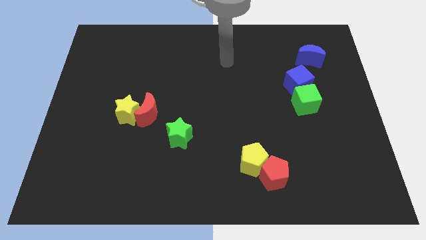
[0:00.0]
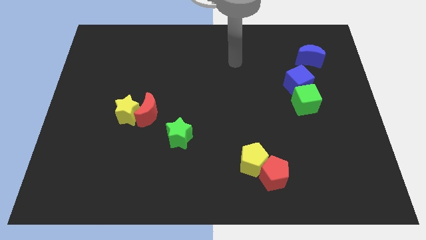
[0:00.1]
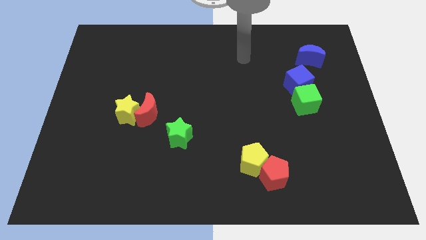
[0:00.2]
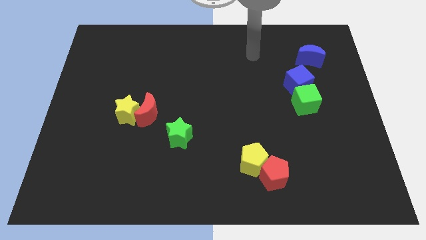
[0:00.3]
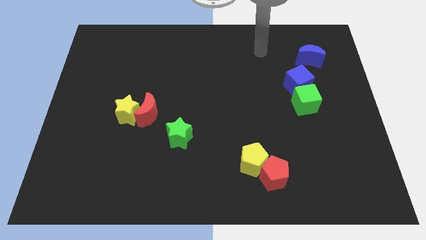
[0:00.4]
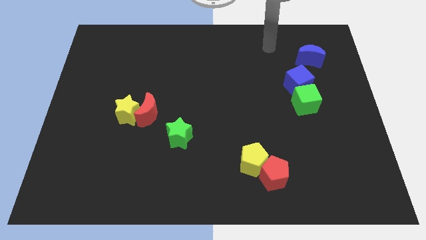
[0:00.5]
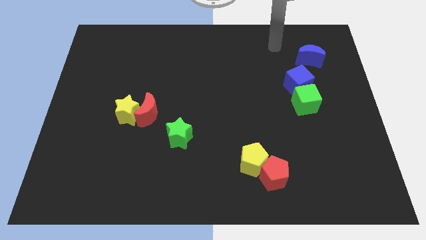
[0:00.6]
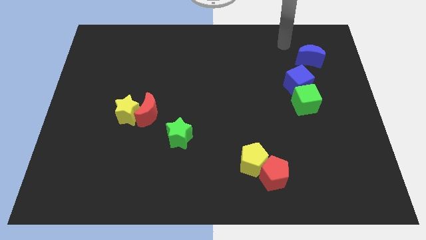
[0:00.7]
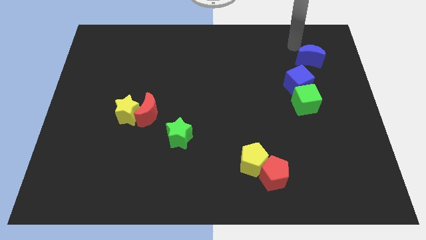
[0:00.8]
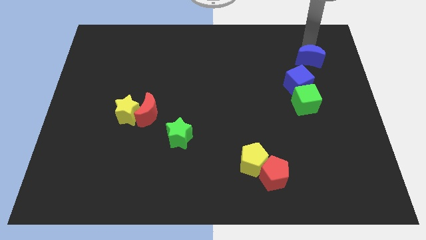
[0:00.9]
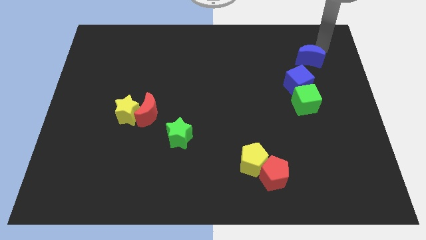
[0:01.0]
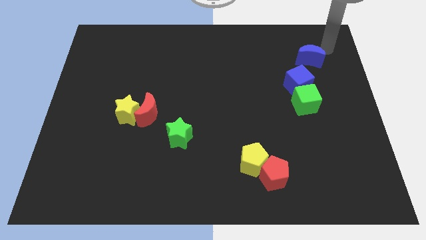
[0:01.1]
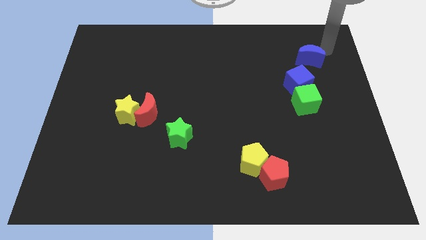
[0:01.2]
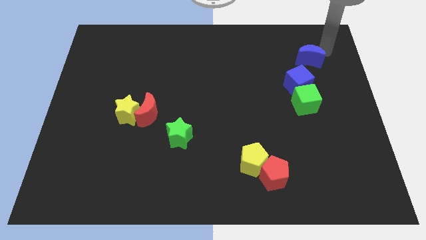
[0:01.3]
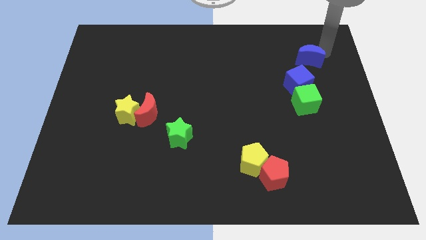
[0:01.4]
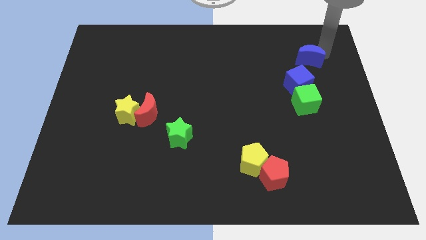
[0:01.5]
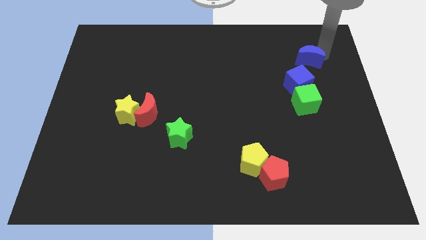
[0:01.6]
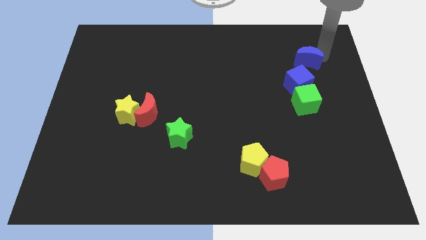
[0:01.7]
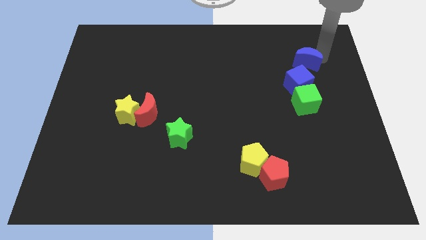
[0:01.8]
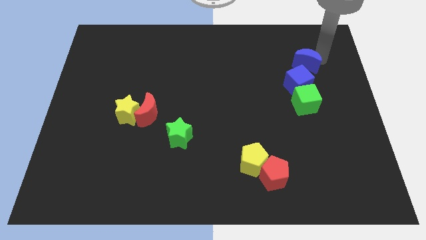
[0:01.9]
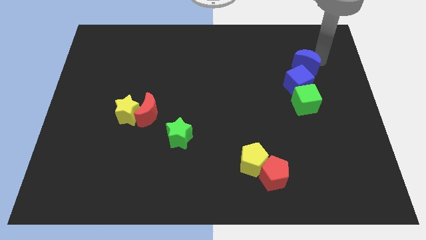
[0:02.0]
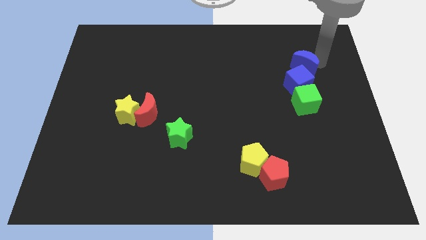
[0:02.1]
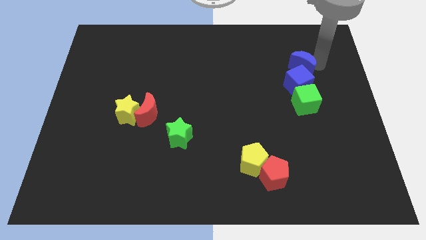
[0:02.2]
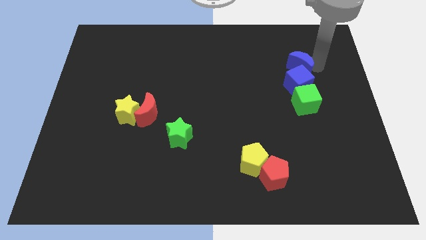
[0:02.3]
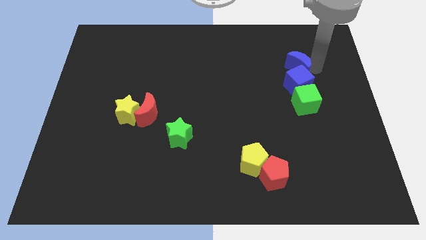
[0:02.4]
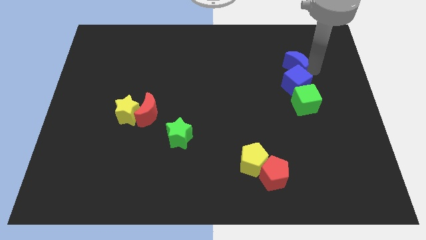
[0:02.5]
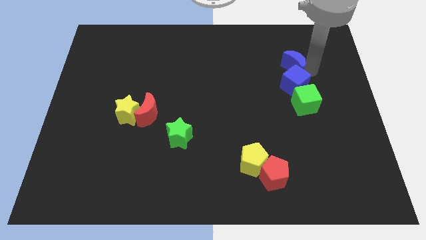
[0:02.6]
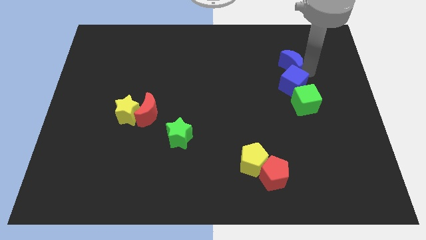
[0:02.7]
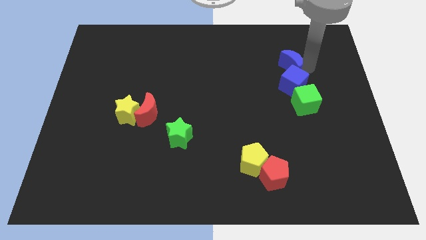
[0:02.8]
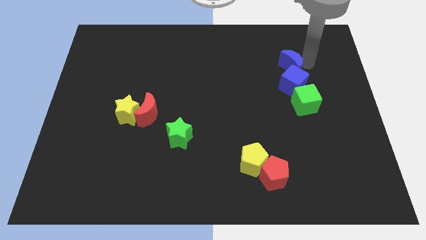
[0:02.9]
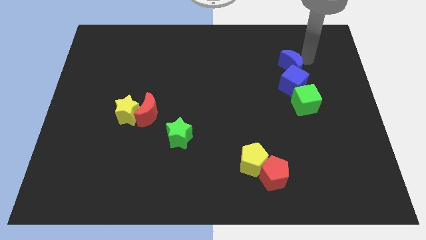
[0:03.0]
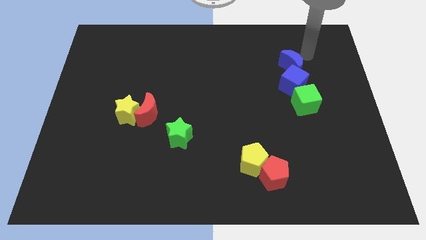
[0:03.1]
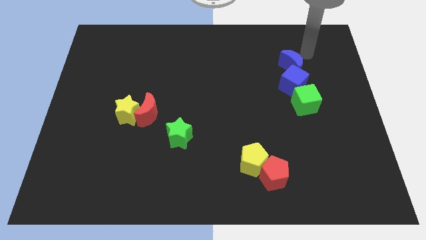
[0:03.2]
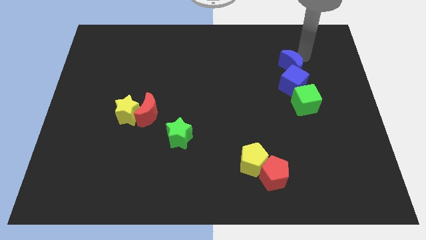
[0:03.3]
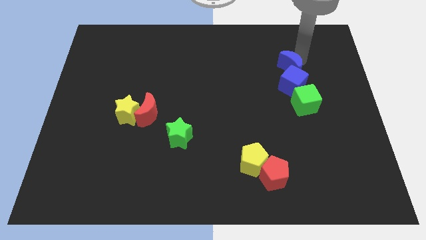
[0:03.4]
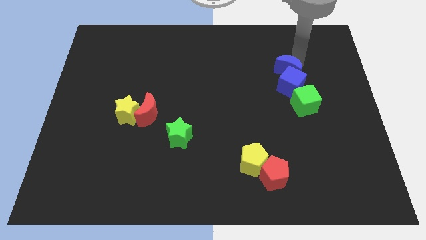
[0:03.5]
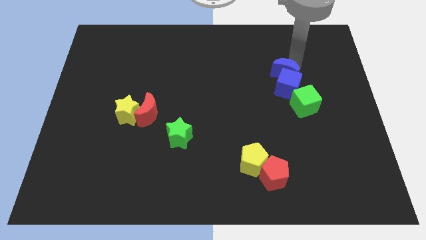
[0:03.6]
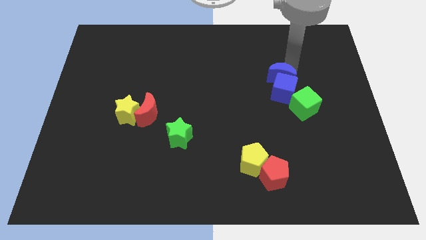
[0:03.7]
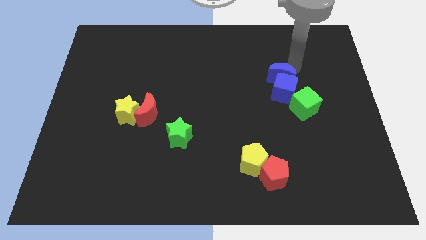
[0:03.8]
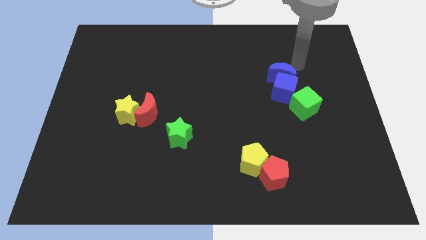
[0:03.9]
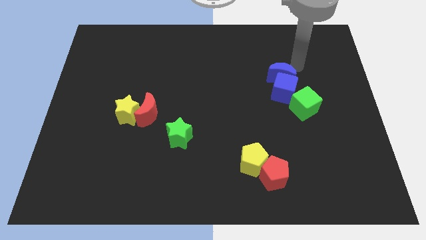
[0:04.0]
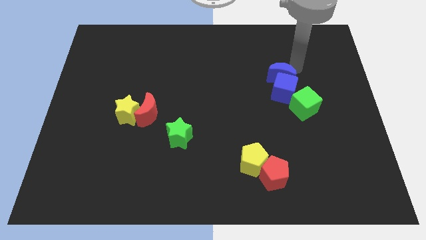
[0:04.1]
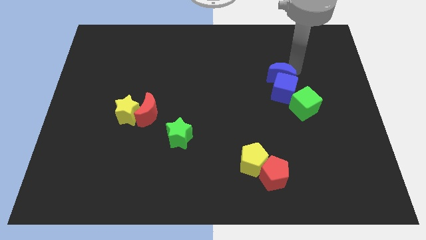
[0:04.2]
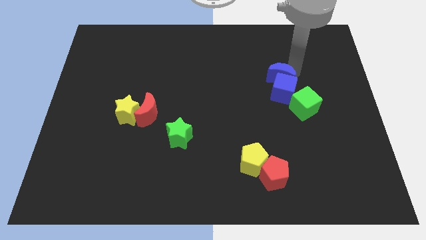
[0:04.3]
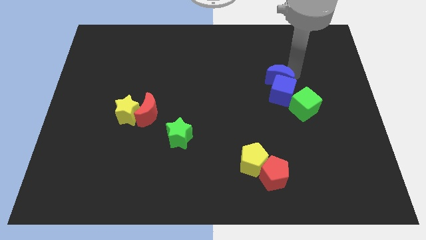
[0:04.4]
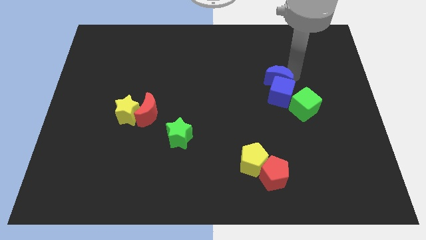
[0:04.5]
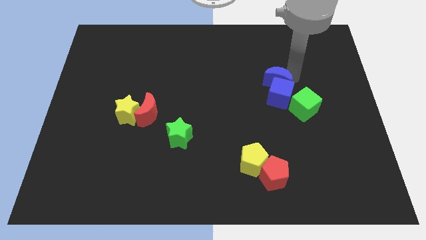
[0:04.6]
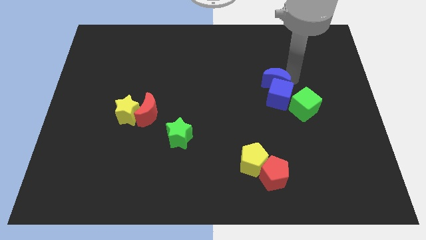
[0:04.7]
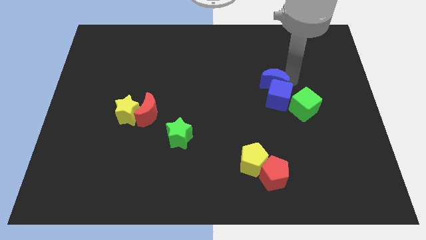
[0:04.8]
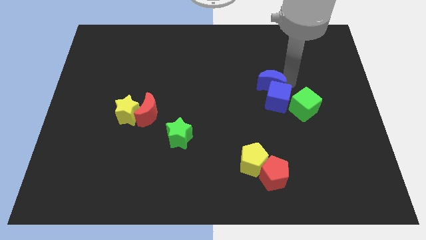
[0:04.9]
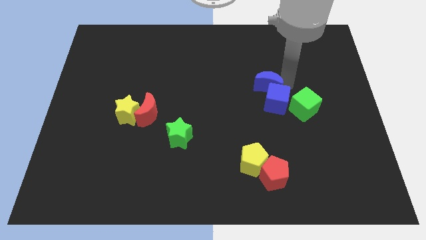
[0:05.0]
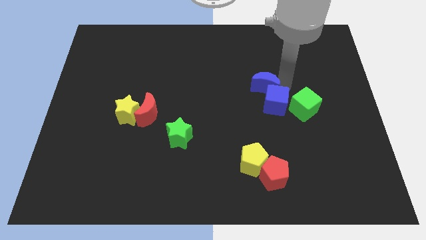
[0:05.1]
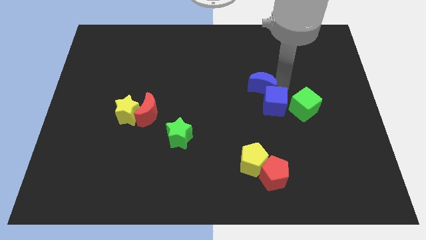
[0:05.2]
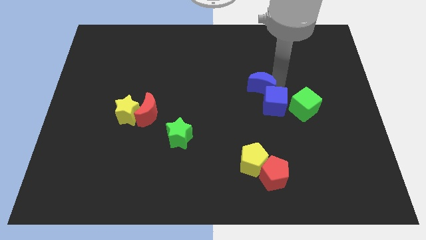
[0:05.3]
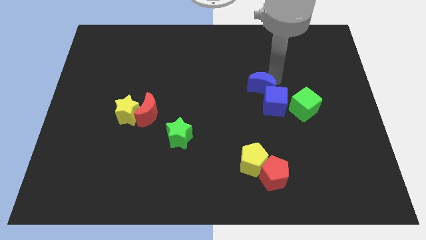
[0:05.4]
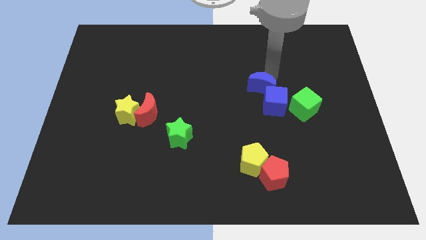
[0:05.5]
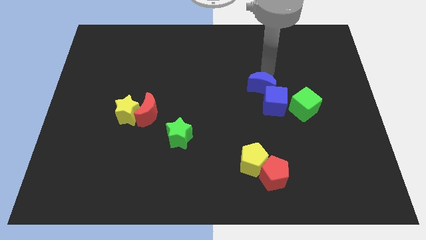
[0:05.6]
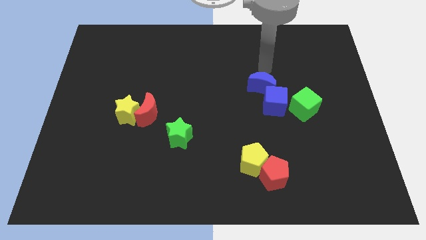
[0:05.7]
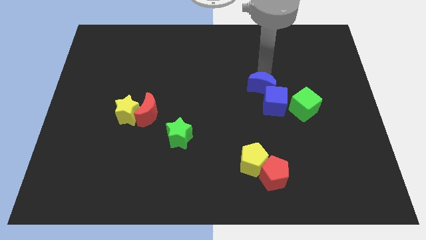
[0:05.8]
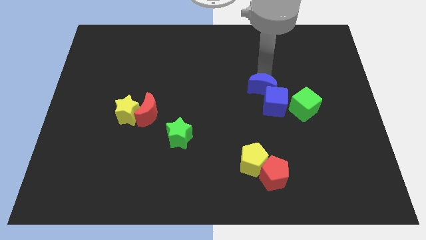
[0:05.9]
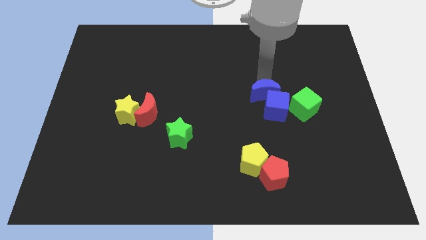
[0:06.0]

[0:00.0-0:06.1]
push the blue moon to the left of the green cube

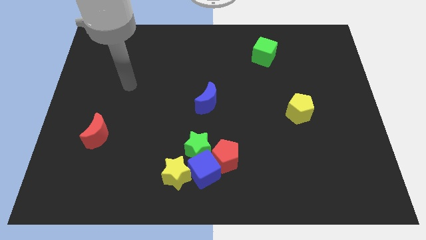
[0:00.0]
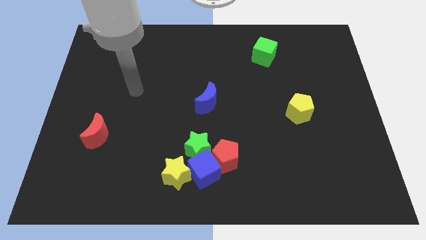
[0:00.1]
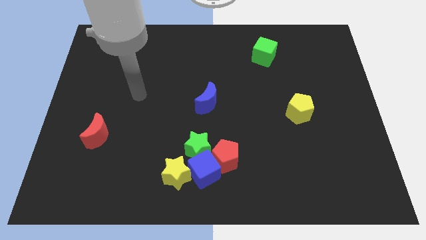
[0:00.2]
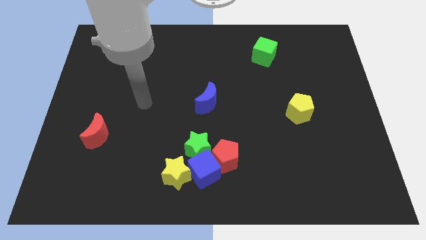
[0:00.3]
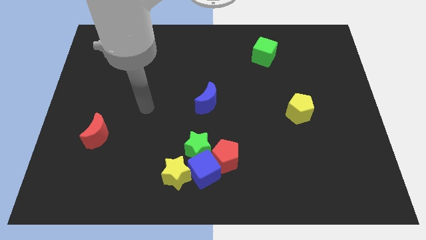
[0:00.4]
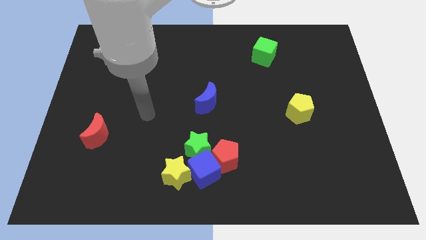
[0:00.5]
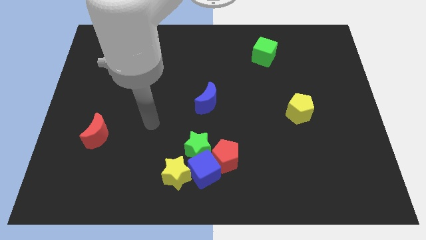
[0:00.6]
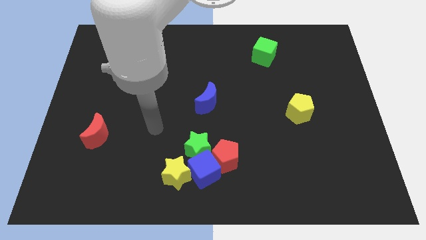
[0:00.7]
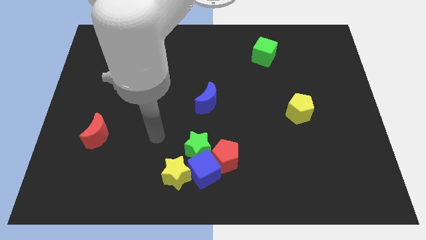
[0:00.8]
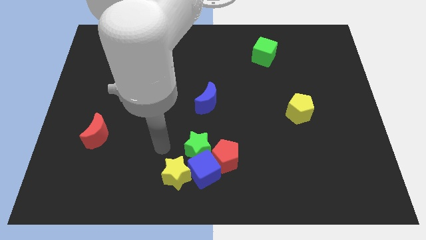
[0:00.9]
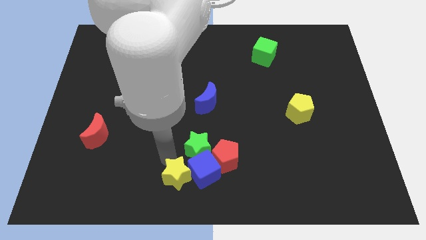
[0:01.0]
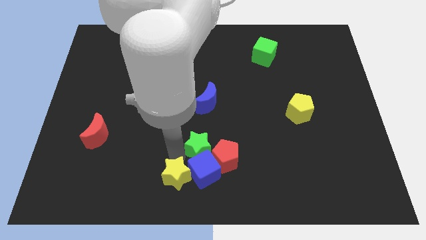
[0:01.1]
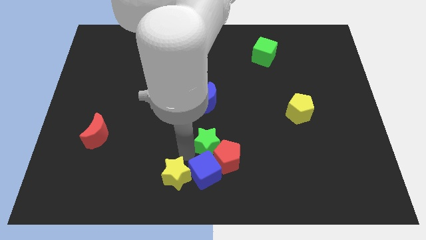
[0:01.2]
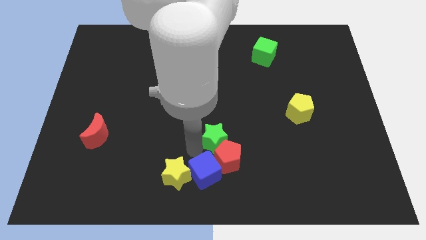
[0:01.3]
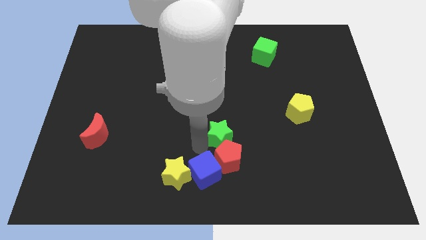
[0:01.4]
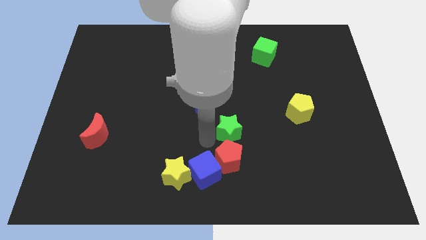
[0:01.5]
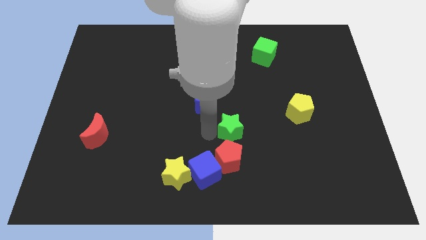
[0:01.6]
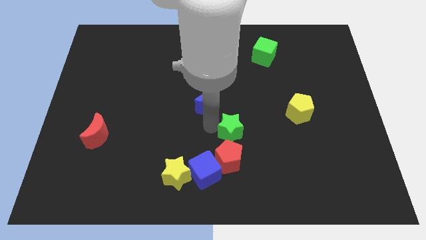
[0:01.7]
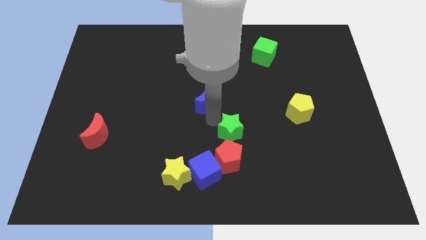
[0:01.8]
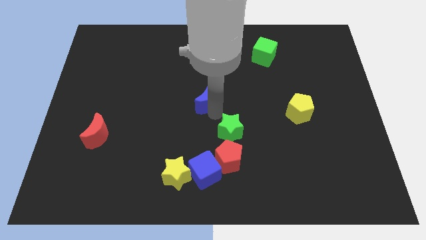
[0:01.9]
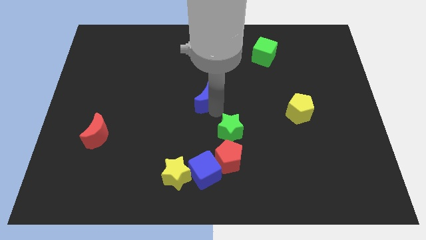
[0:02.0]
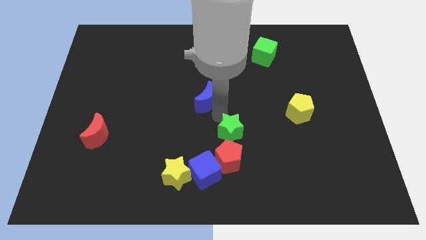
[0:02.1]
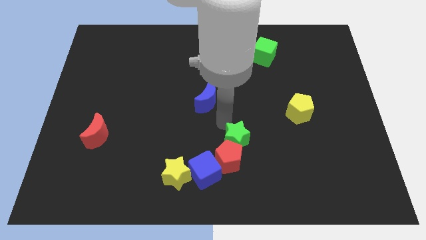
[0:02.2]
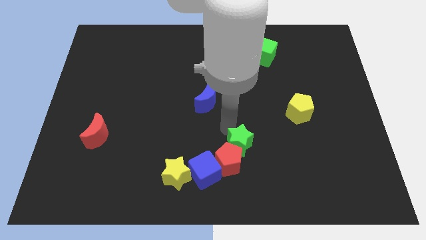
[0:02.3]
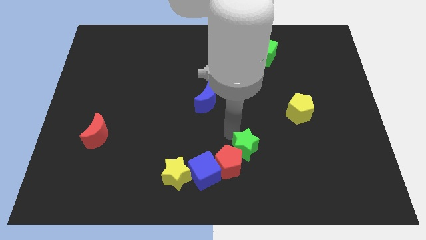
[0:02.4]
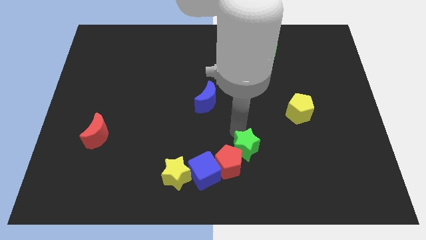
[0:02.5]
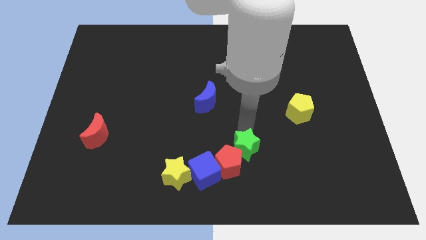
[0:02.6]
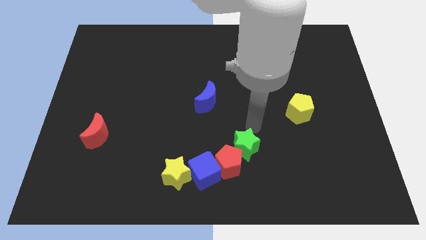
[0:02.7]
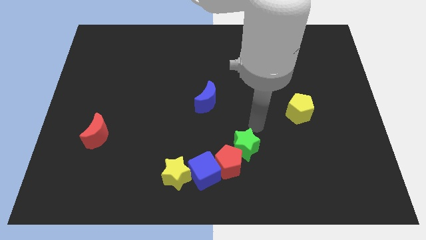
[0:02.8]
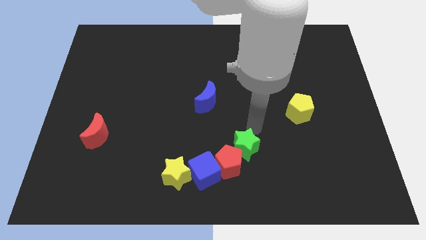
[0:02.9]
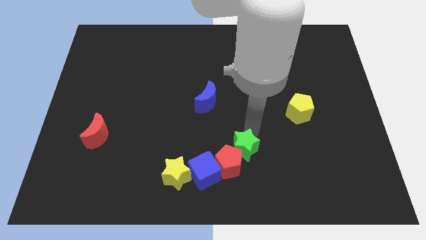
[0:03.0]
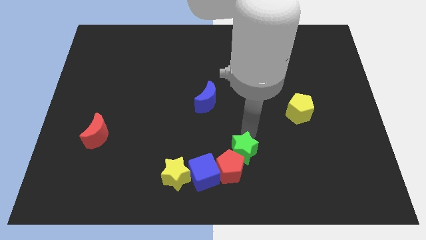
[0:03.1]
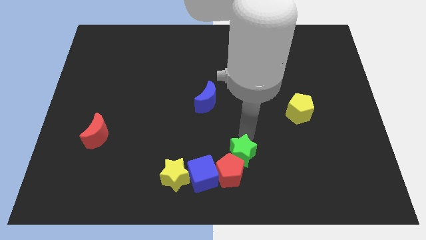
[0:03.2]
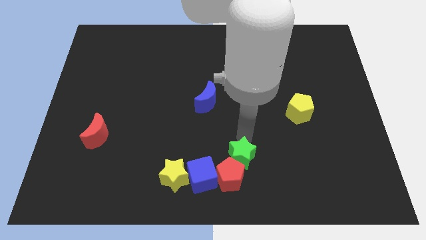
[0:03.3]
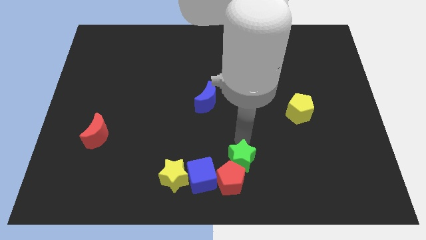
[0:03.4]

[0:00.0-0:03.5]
put the green star right of the yellow star
